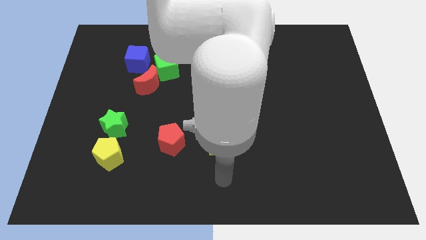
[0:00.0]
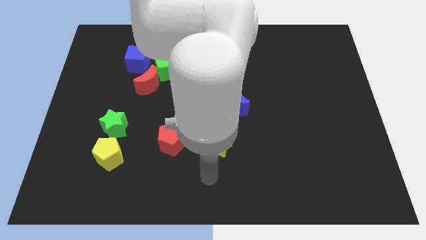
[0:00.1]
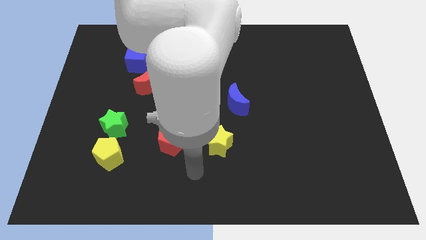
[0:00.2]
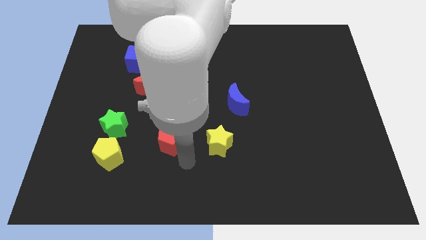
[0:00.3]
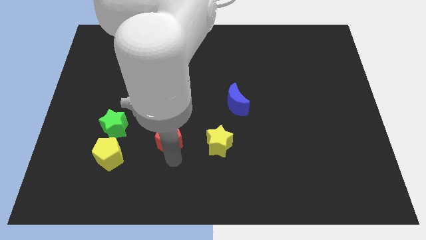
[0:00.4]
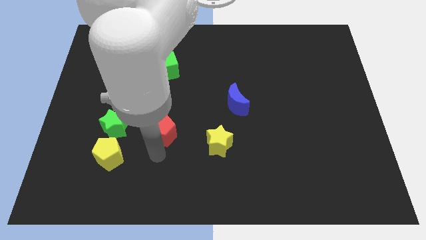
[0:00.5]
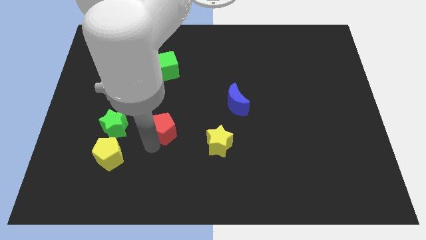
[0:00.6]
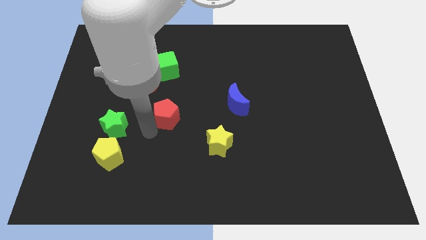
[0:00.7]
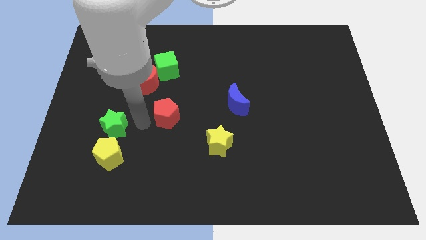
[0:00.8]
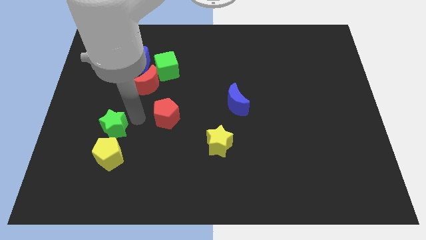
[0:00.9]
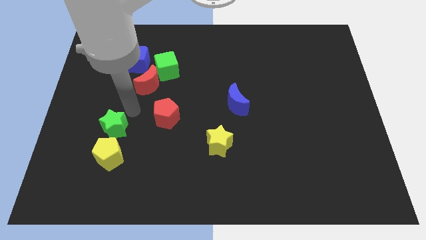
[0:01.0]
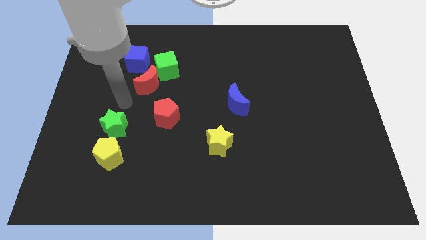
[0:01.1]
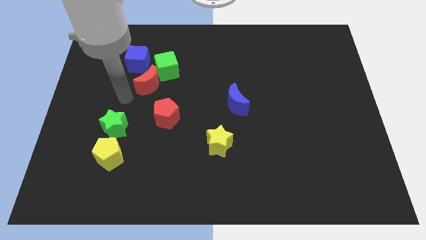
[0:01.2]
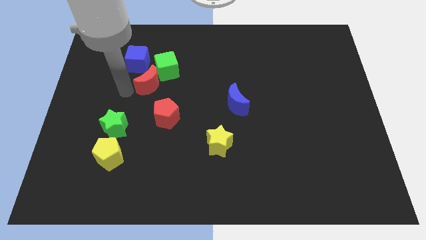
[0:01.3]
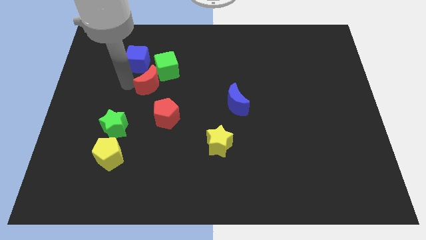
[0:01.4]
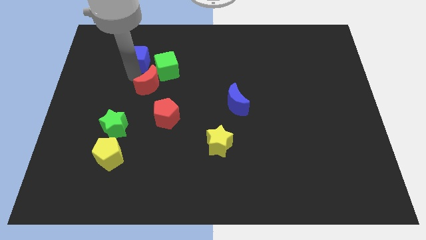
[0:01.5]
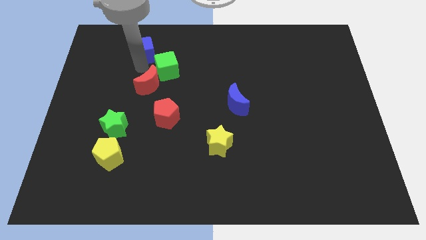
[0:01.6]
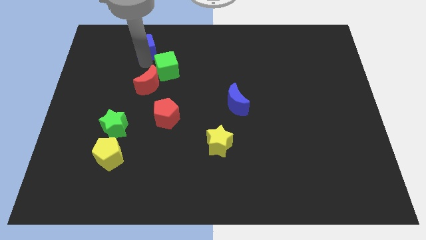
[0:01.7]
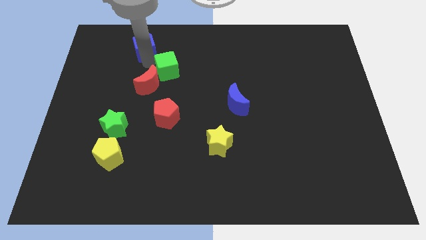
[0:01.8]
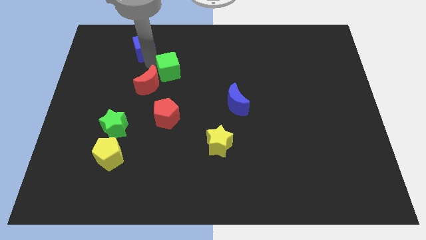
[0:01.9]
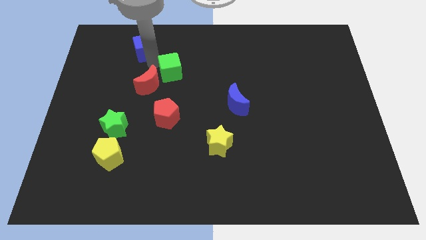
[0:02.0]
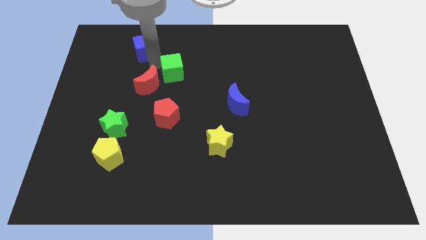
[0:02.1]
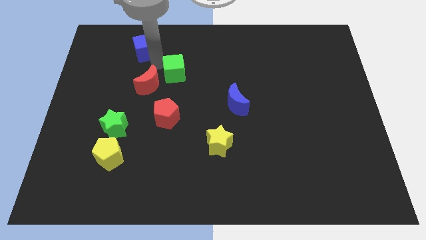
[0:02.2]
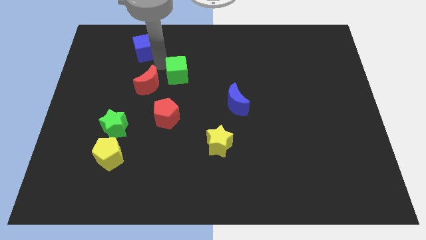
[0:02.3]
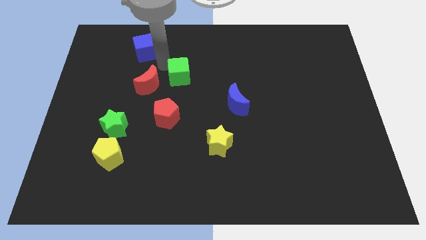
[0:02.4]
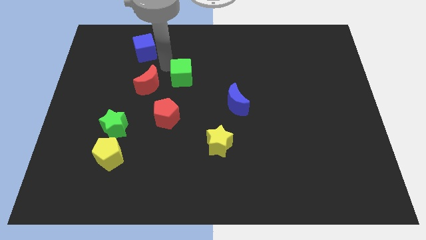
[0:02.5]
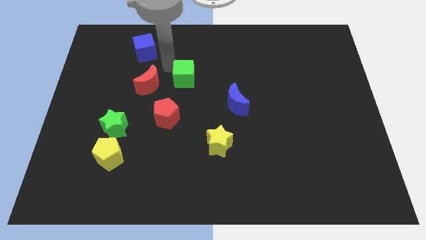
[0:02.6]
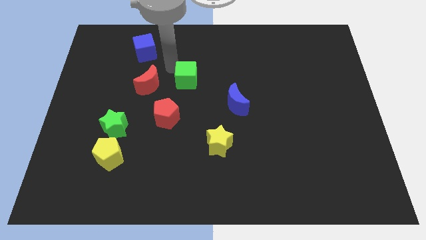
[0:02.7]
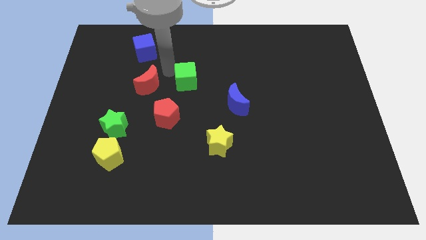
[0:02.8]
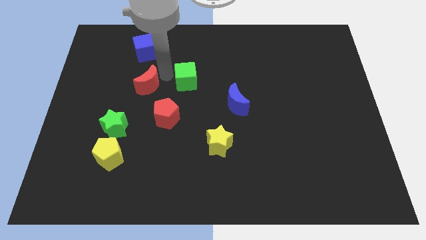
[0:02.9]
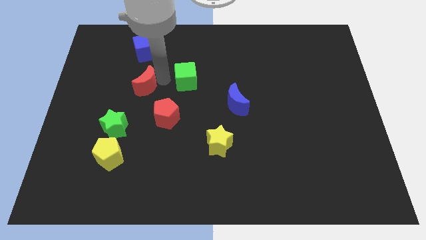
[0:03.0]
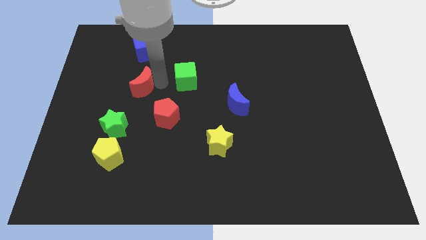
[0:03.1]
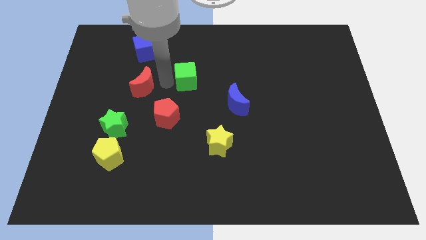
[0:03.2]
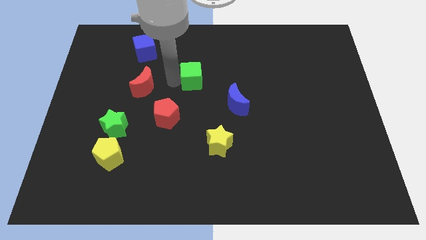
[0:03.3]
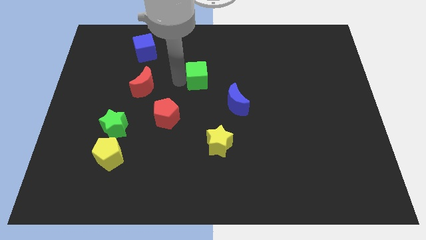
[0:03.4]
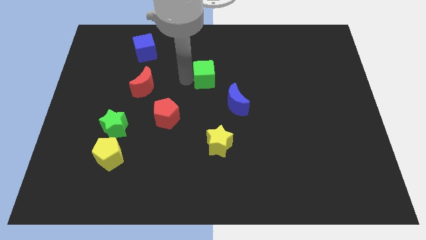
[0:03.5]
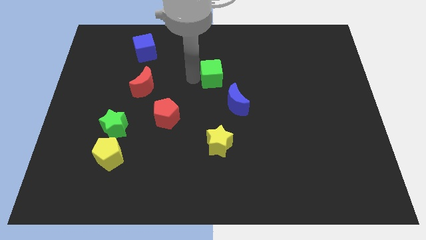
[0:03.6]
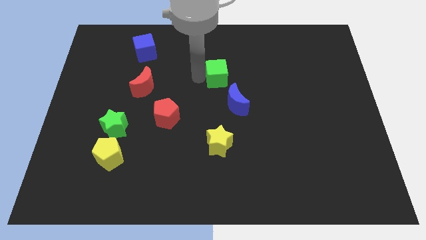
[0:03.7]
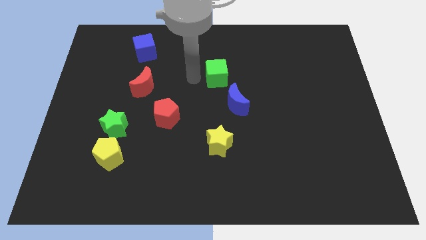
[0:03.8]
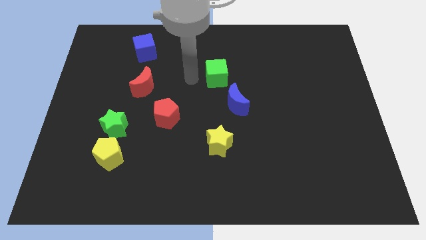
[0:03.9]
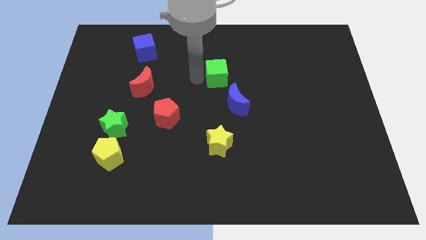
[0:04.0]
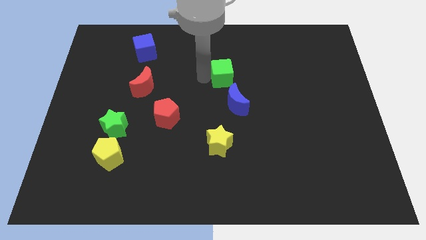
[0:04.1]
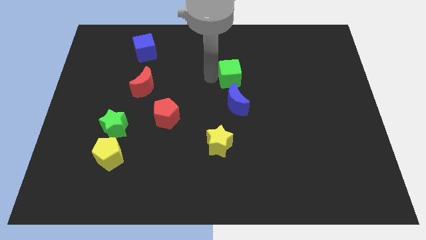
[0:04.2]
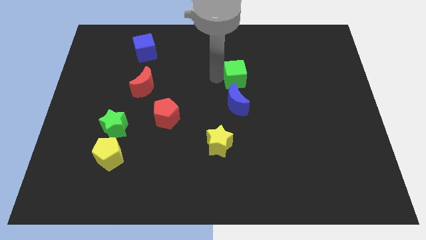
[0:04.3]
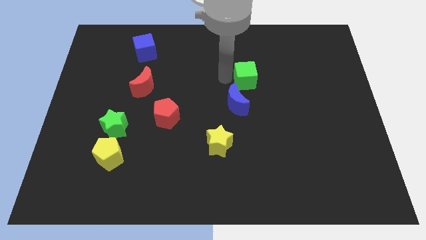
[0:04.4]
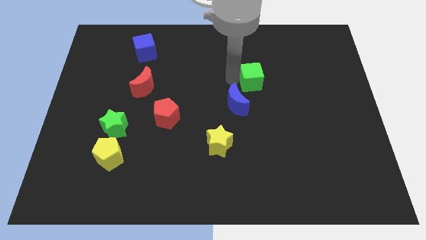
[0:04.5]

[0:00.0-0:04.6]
slide the green cube to the right

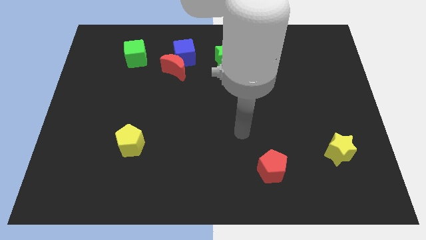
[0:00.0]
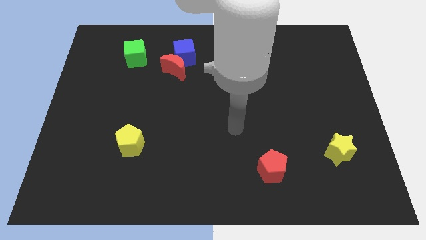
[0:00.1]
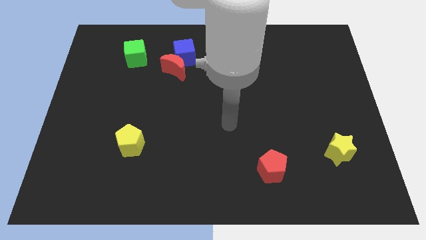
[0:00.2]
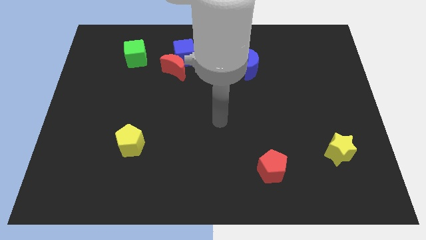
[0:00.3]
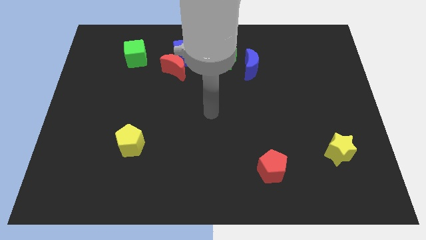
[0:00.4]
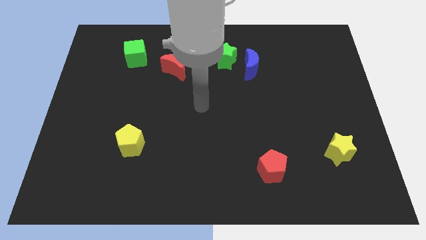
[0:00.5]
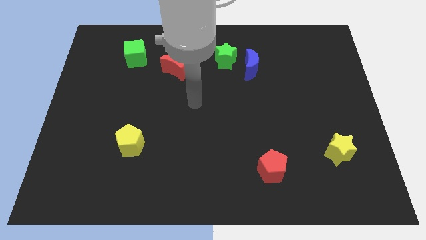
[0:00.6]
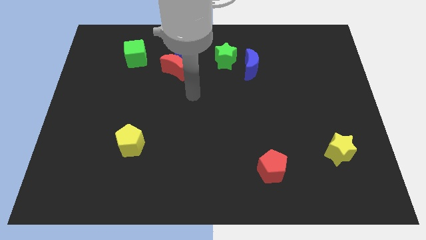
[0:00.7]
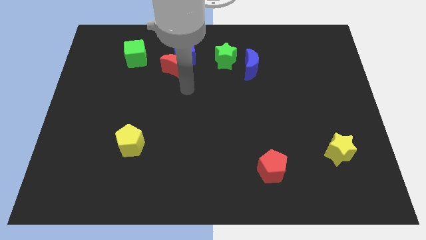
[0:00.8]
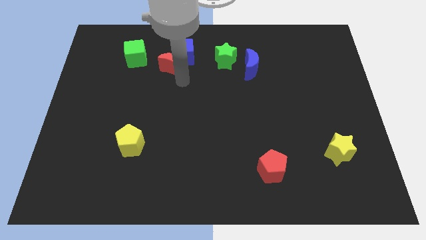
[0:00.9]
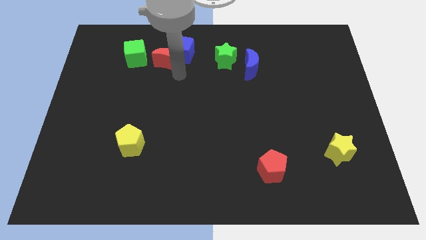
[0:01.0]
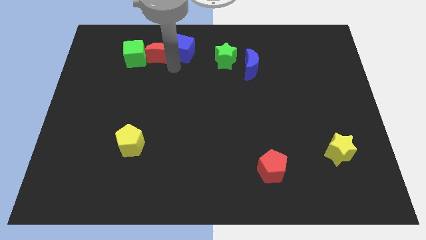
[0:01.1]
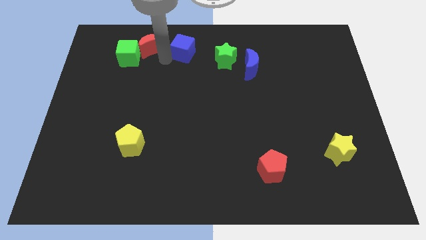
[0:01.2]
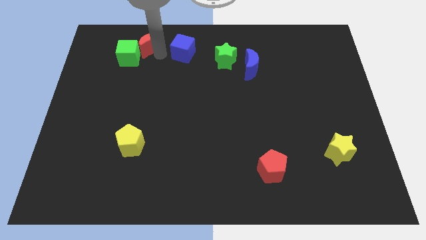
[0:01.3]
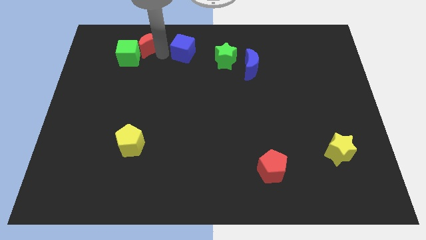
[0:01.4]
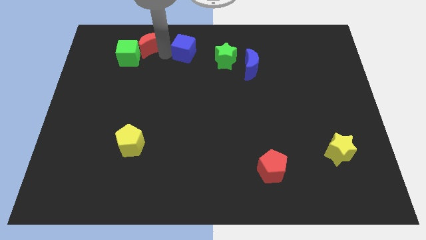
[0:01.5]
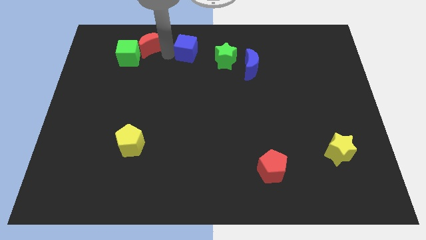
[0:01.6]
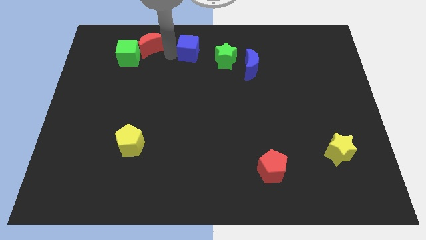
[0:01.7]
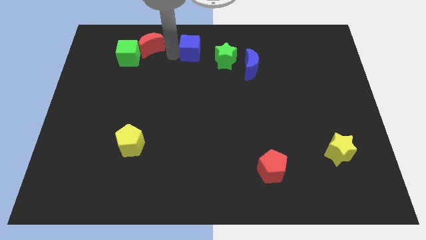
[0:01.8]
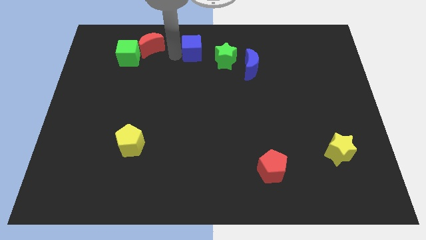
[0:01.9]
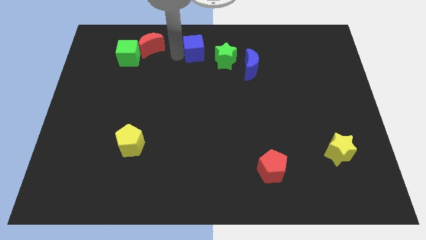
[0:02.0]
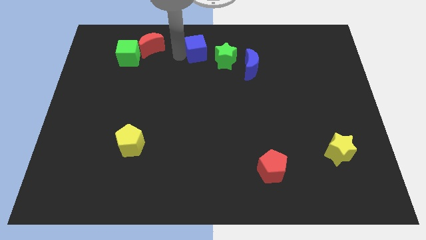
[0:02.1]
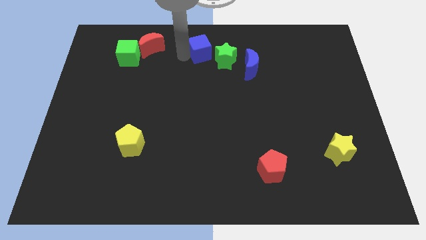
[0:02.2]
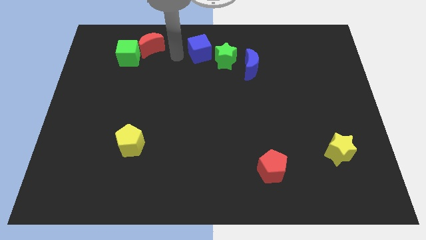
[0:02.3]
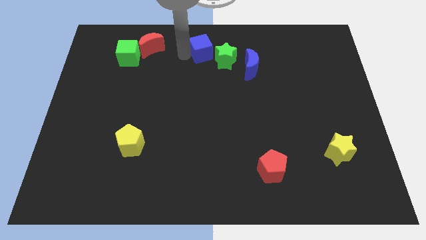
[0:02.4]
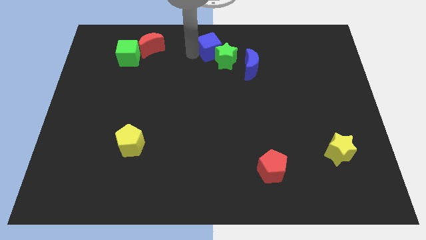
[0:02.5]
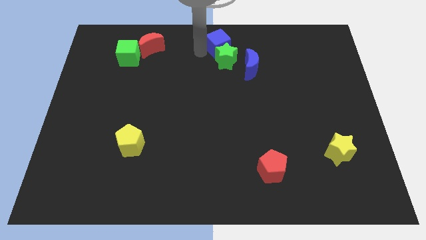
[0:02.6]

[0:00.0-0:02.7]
slide the blue cube a little bit right

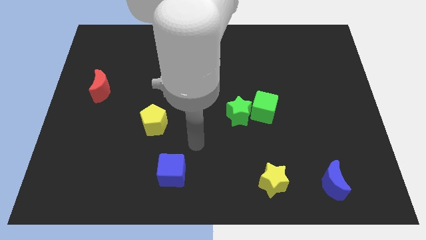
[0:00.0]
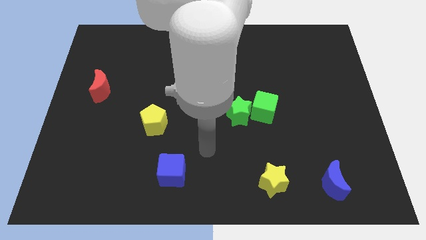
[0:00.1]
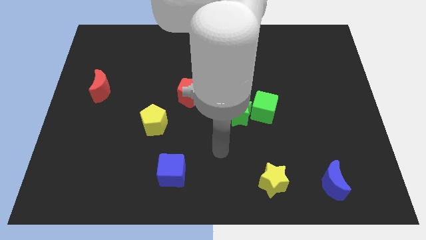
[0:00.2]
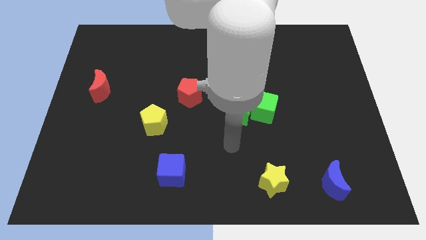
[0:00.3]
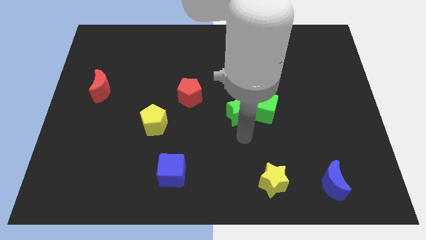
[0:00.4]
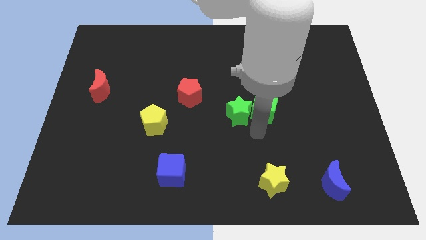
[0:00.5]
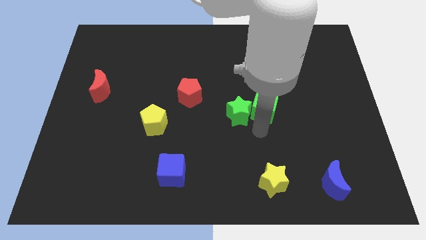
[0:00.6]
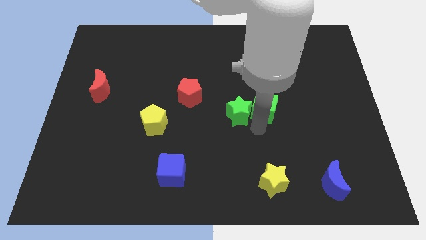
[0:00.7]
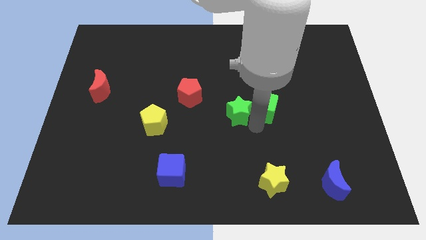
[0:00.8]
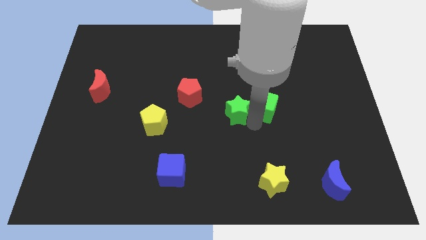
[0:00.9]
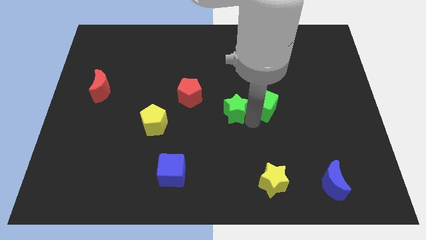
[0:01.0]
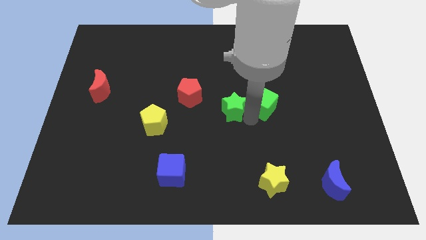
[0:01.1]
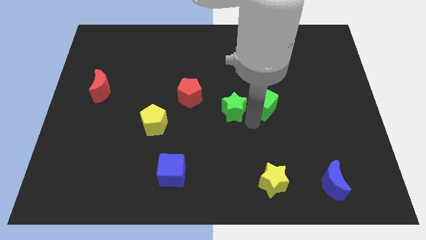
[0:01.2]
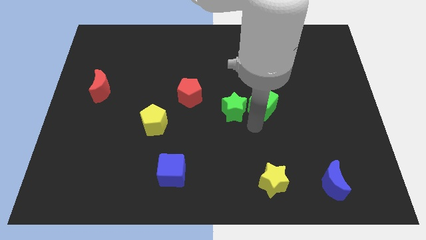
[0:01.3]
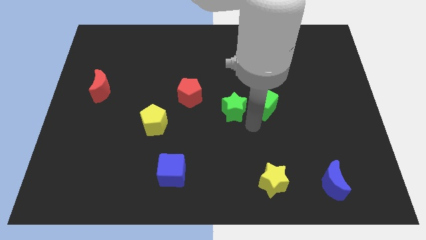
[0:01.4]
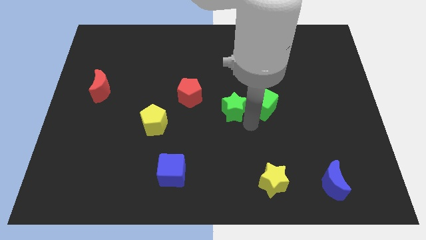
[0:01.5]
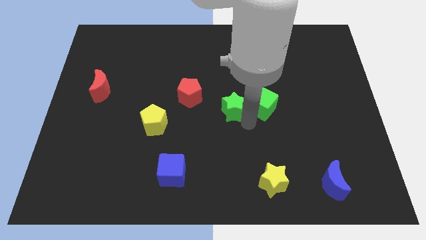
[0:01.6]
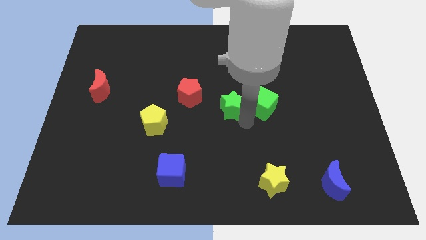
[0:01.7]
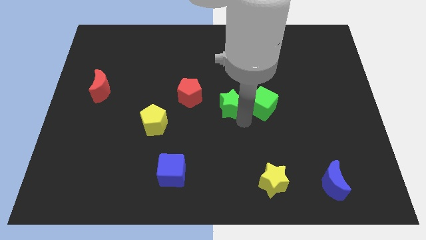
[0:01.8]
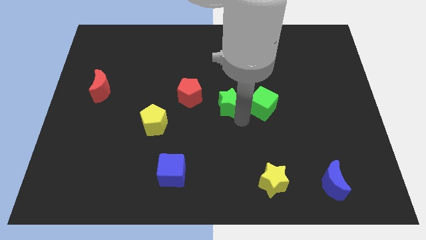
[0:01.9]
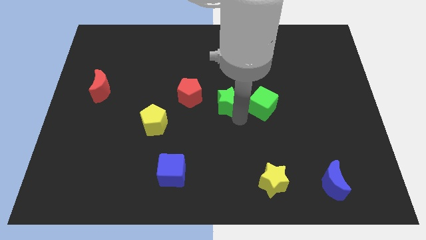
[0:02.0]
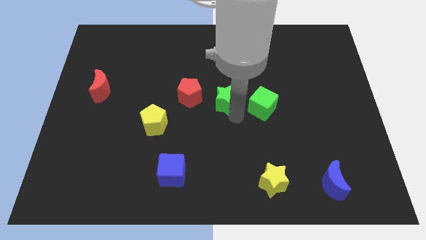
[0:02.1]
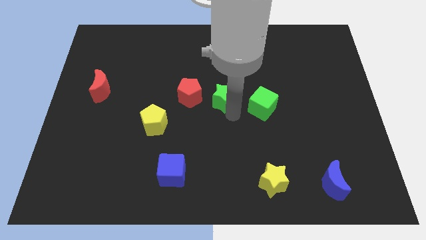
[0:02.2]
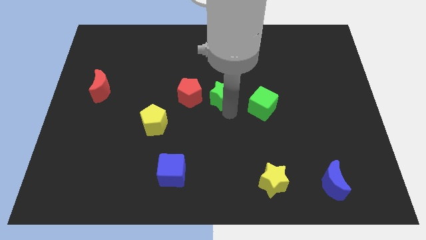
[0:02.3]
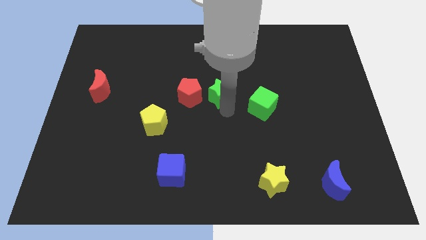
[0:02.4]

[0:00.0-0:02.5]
slightly slide the green star upwards and to the left diagonally
